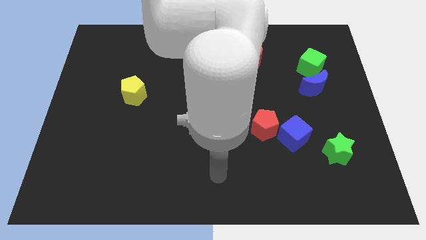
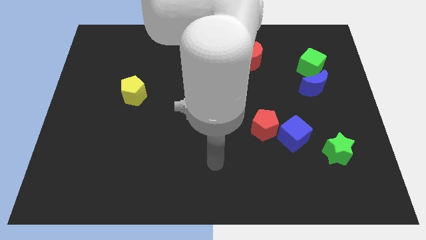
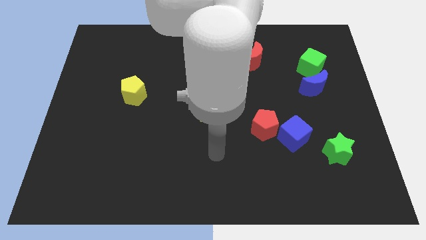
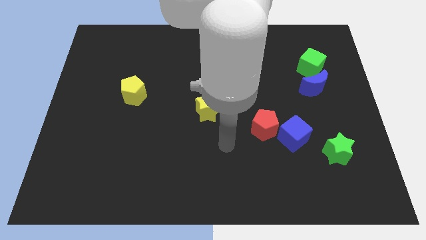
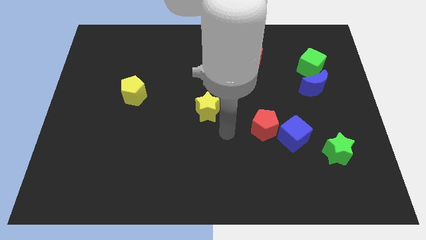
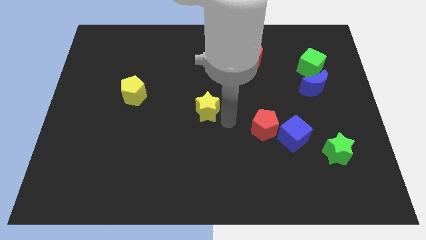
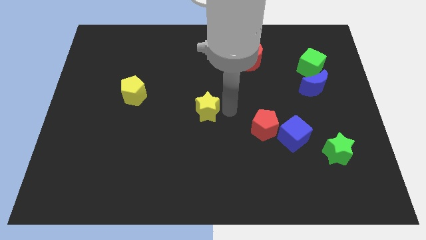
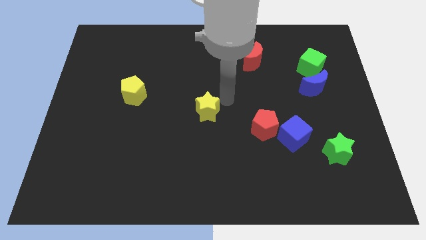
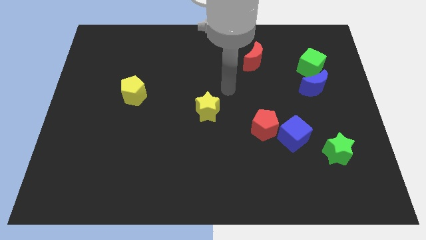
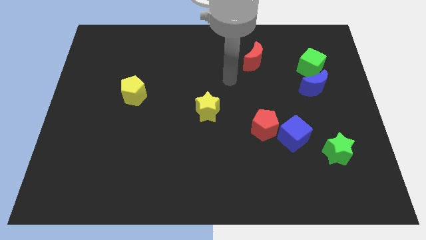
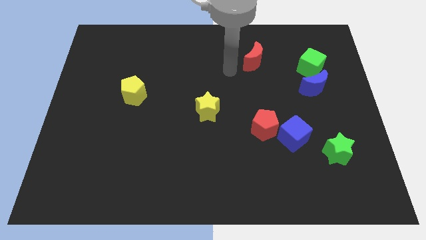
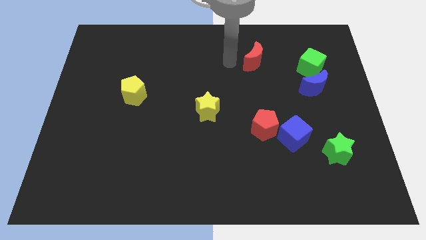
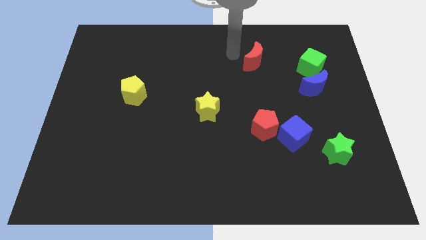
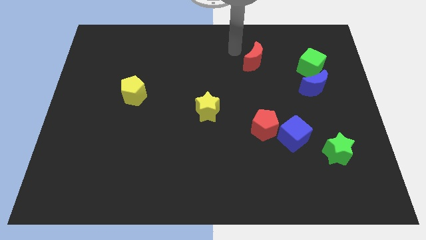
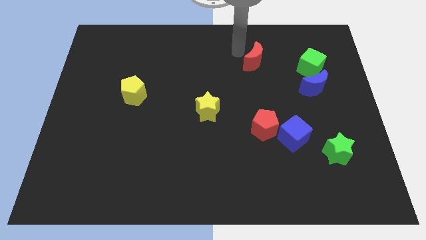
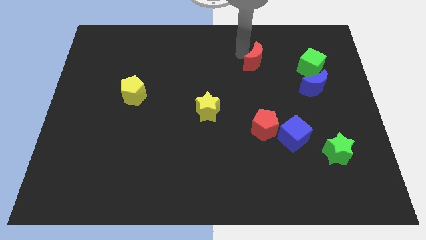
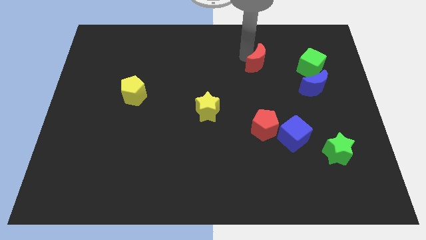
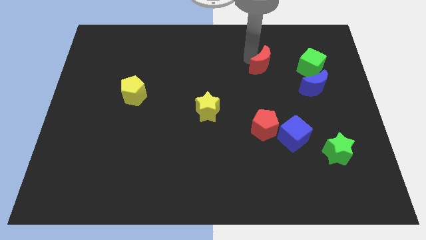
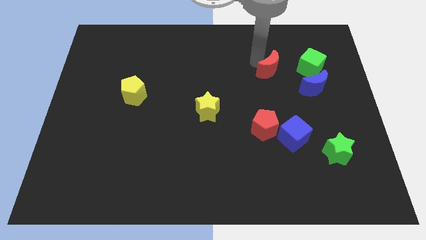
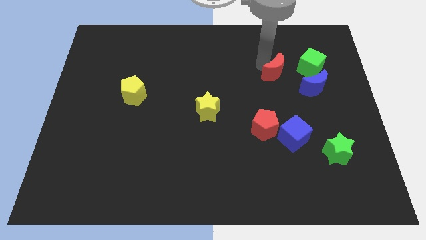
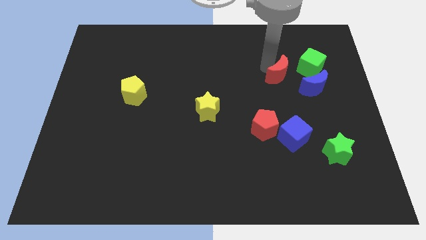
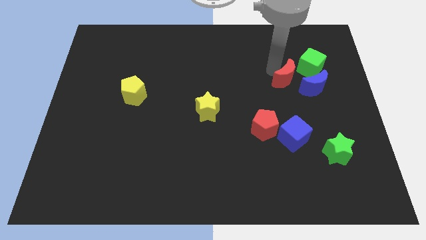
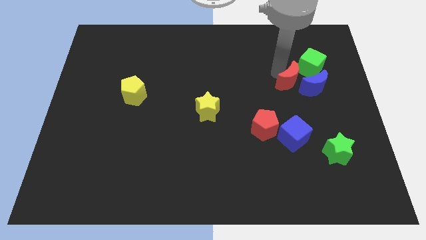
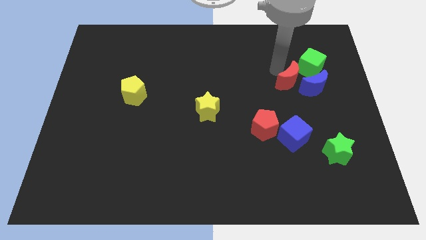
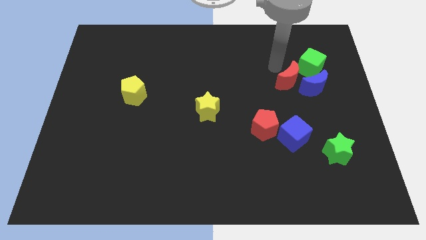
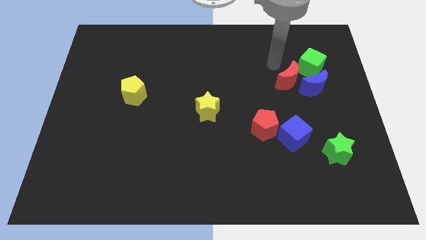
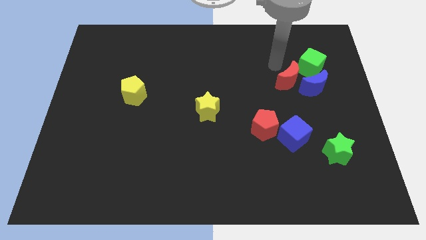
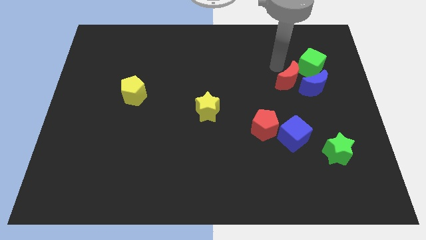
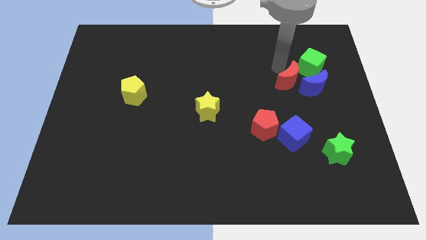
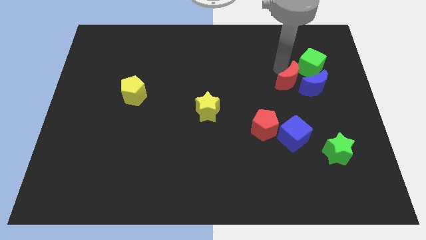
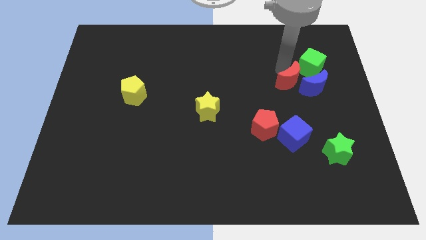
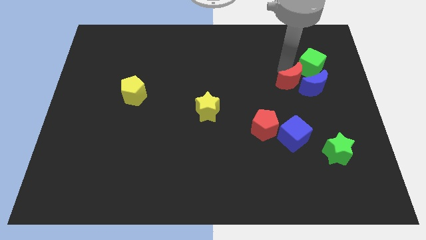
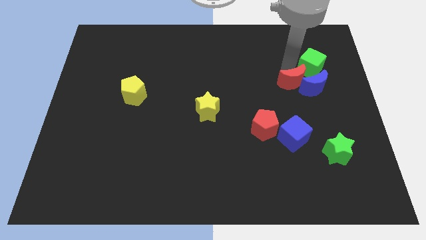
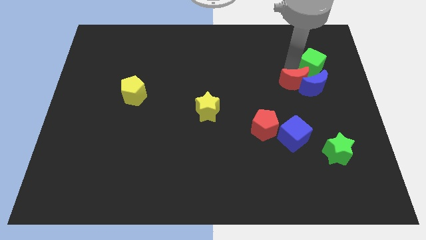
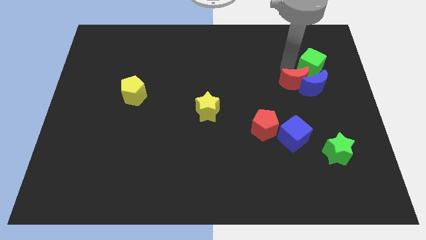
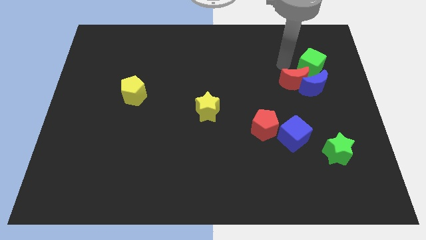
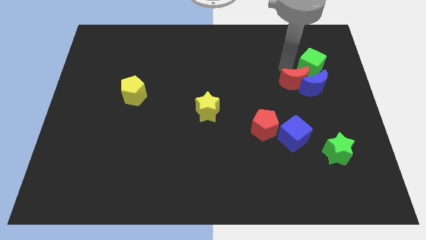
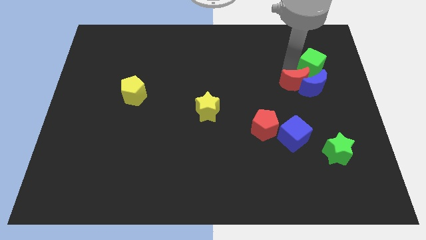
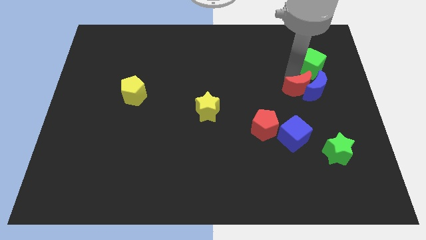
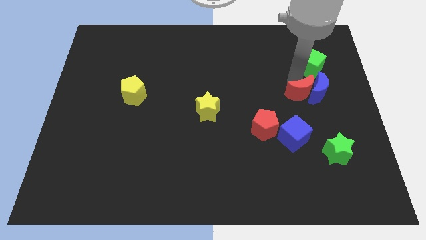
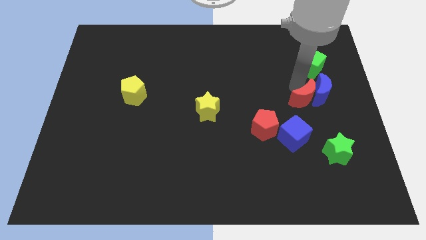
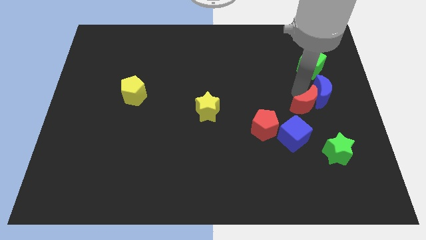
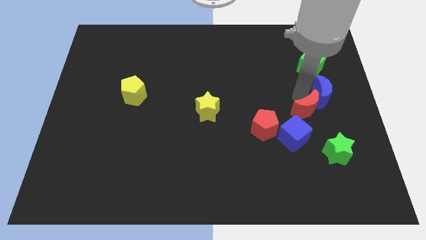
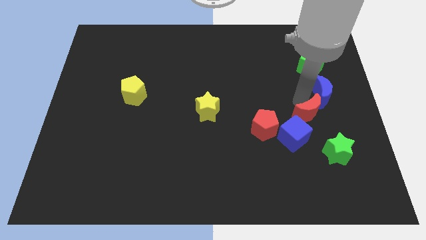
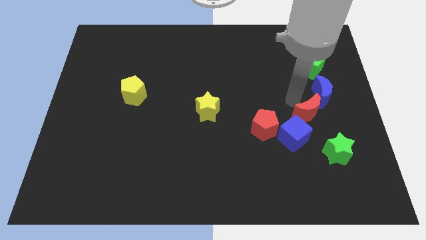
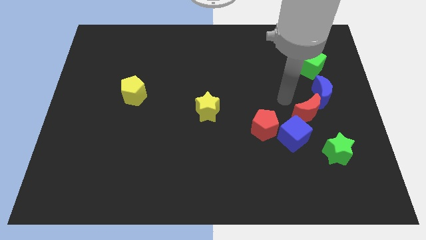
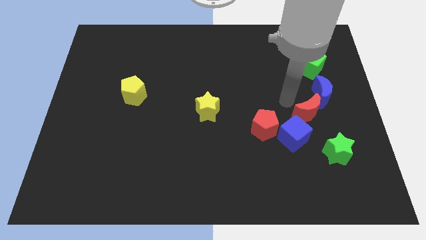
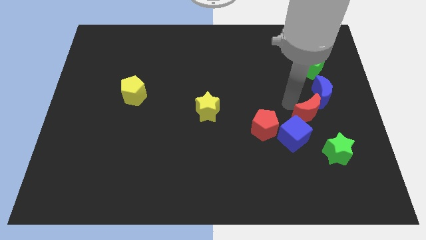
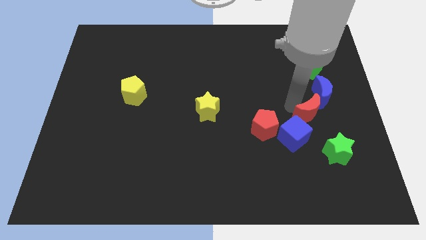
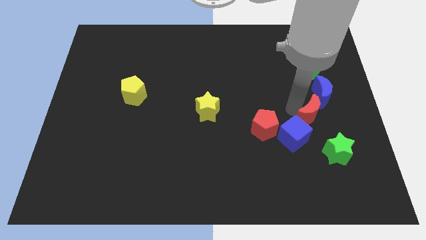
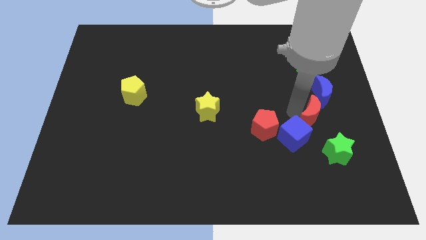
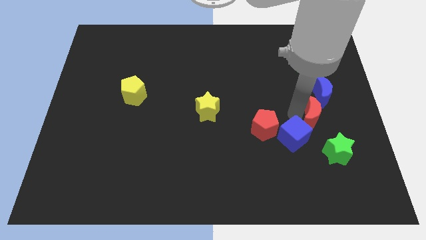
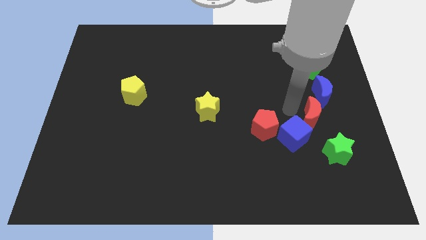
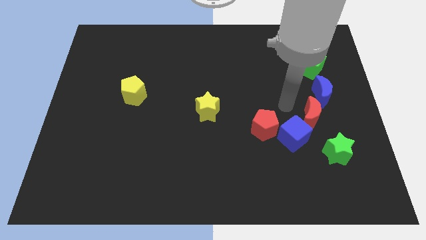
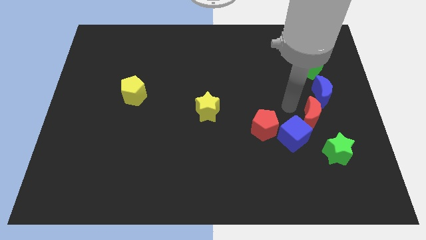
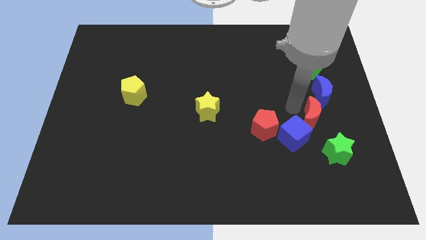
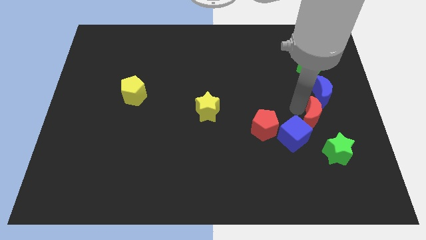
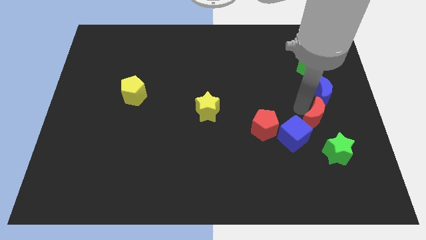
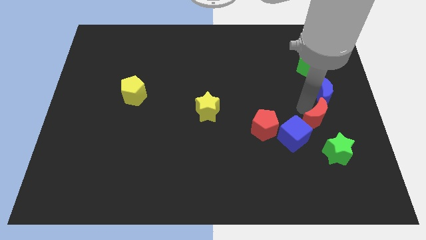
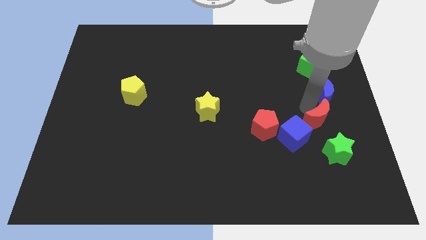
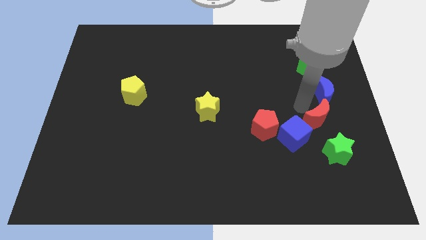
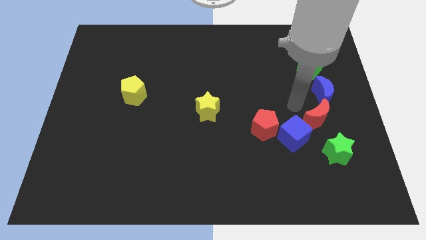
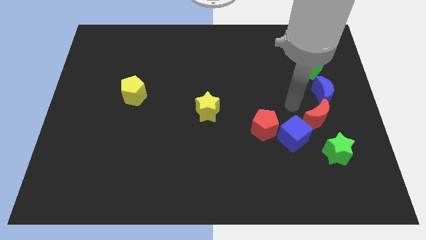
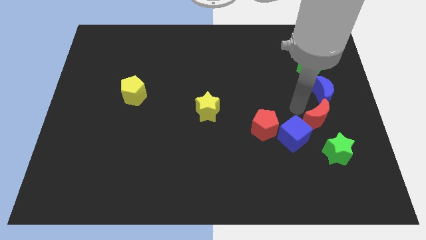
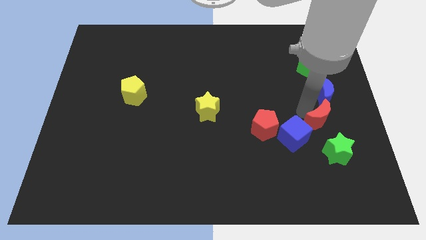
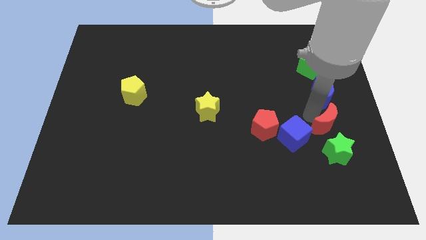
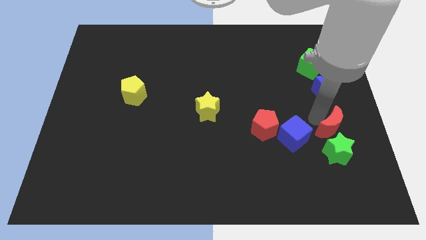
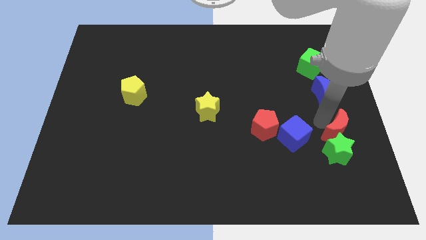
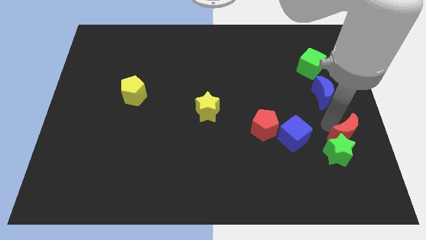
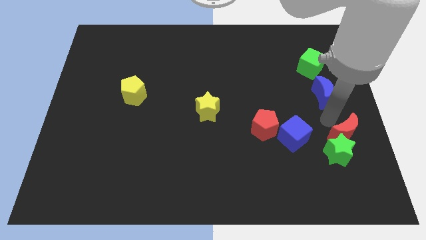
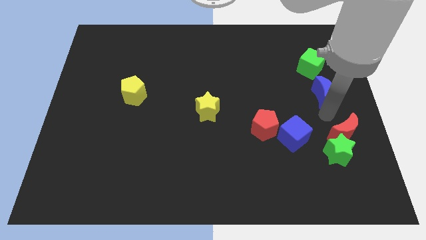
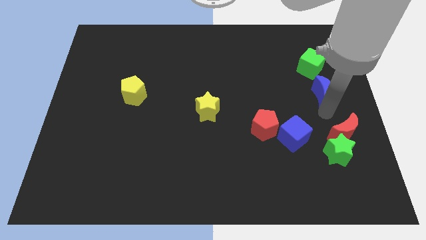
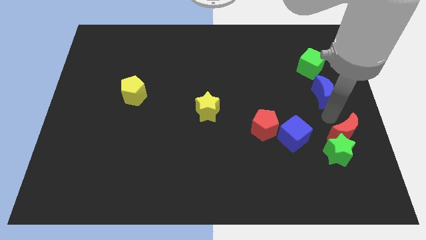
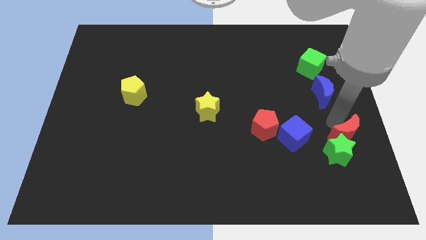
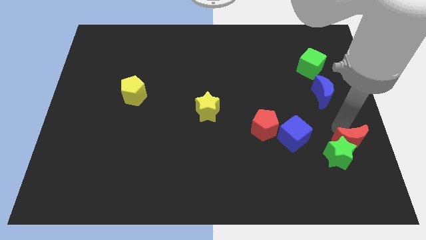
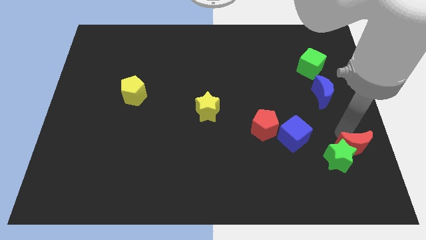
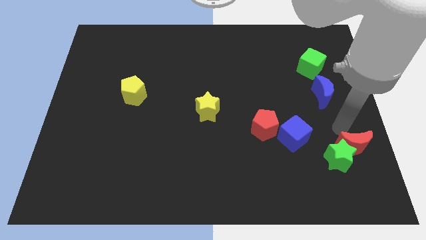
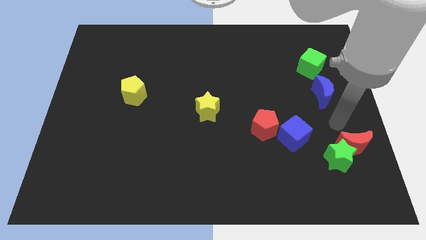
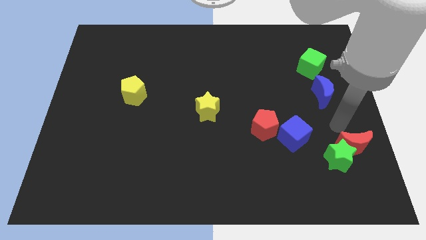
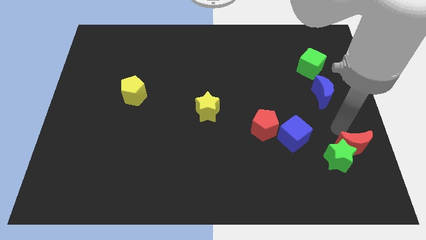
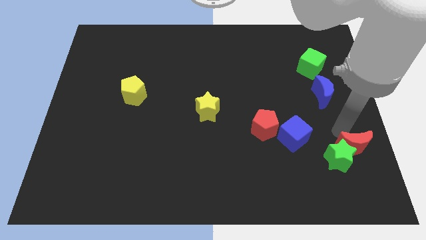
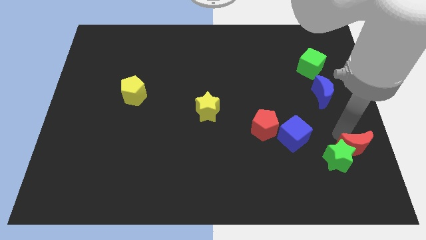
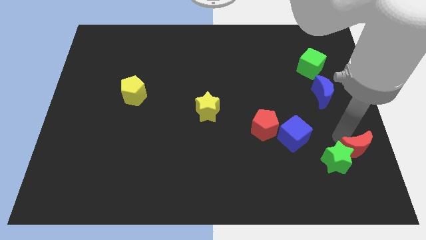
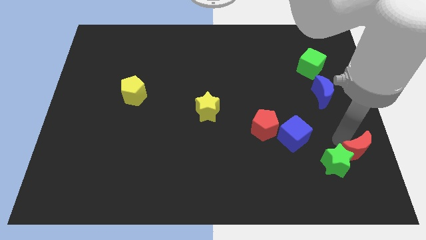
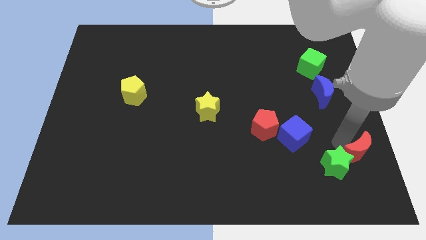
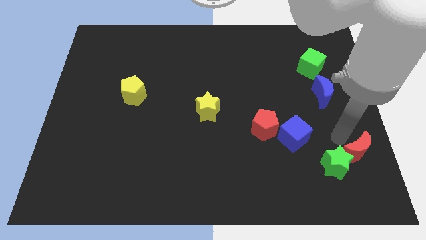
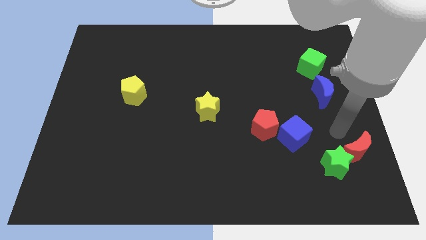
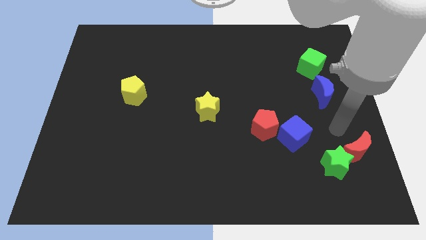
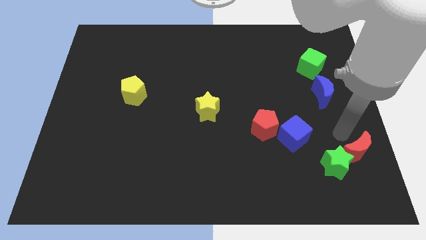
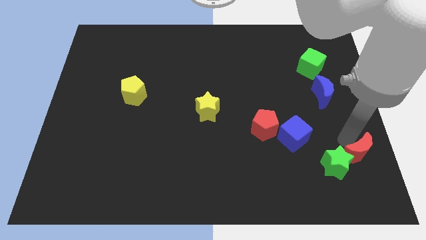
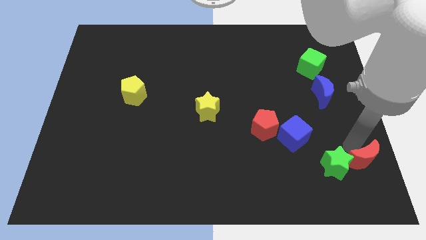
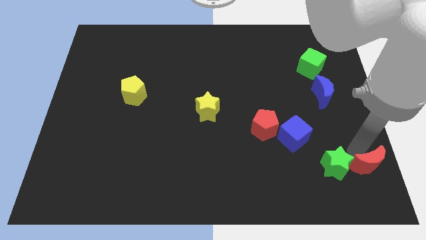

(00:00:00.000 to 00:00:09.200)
push the red moon to the bottom right
